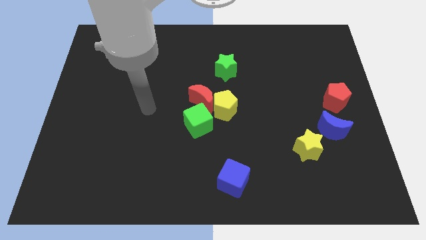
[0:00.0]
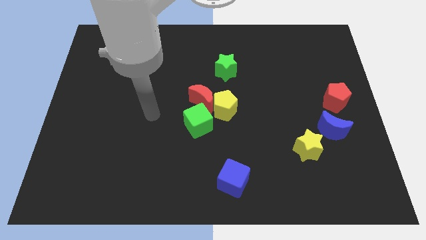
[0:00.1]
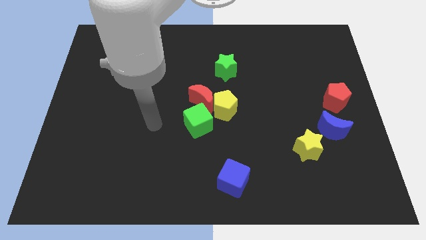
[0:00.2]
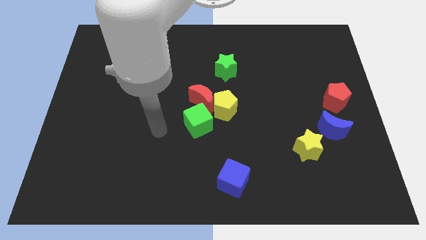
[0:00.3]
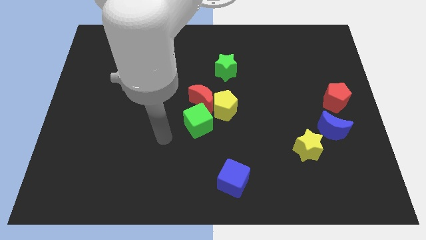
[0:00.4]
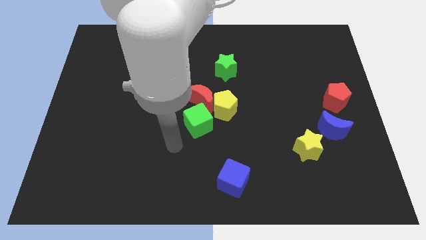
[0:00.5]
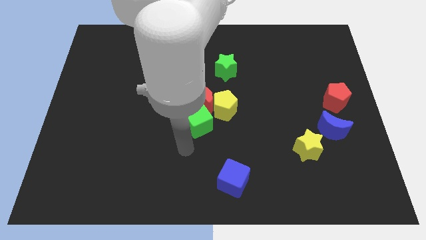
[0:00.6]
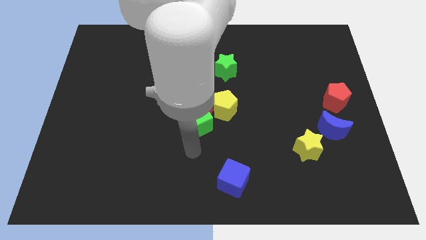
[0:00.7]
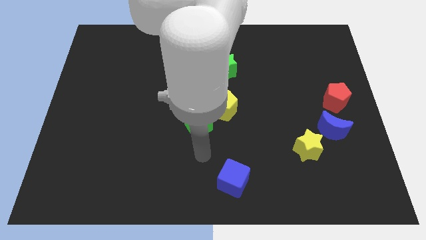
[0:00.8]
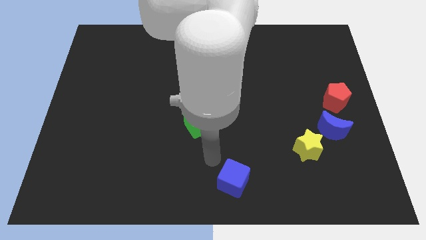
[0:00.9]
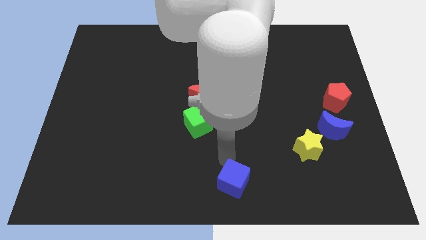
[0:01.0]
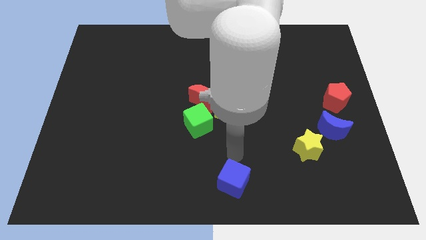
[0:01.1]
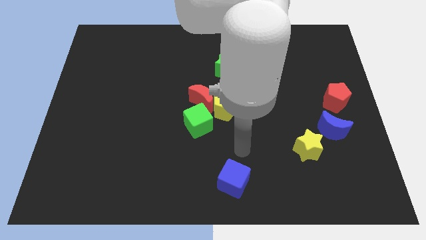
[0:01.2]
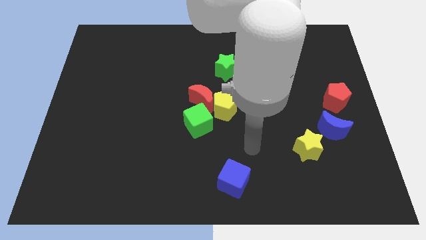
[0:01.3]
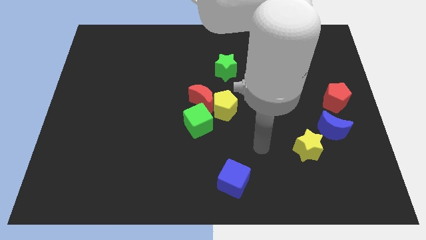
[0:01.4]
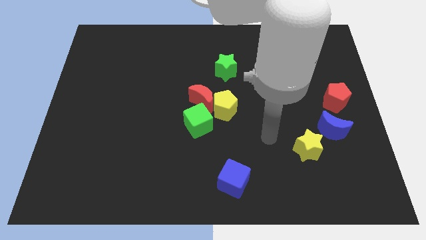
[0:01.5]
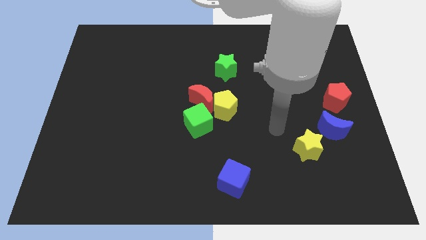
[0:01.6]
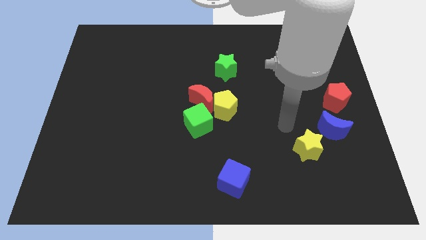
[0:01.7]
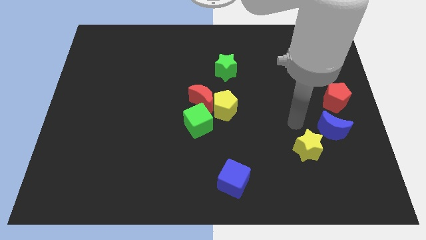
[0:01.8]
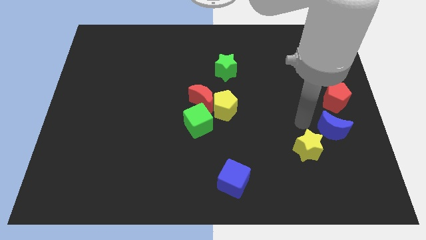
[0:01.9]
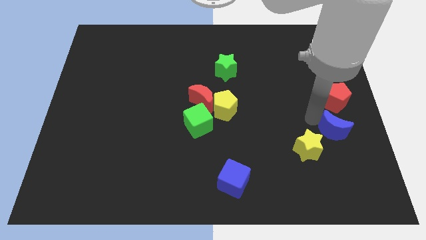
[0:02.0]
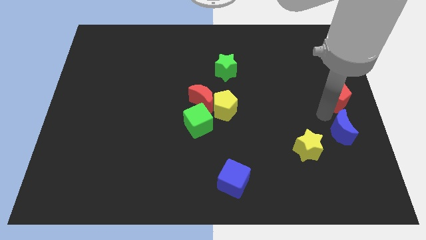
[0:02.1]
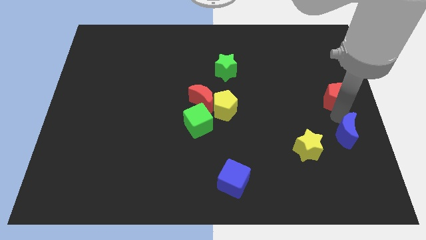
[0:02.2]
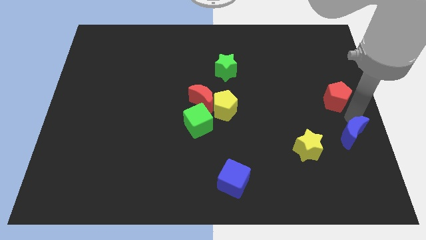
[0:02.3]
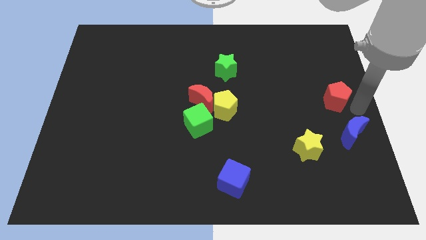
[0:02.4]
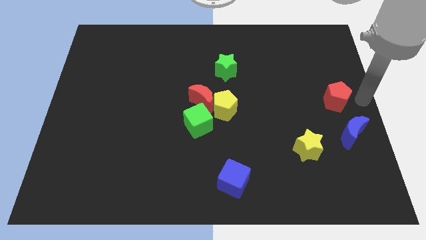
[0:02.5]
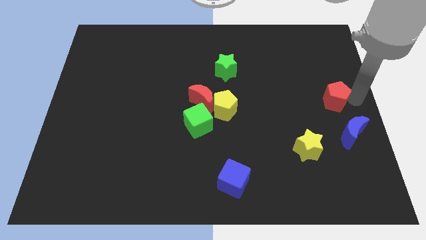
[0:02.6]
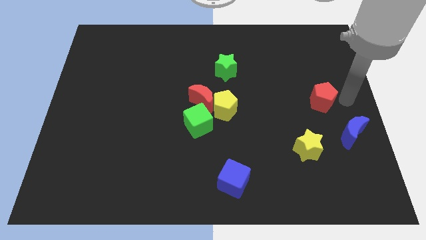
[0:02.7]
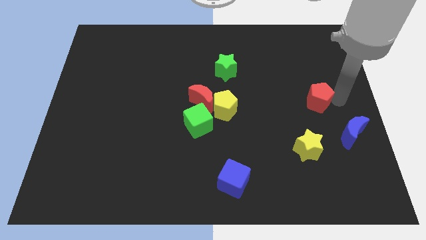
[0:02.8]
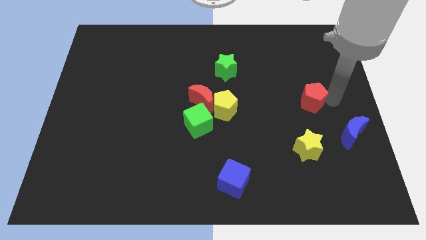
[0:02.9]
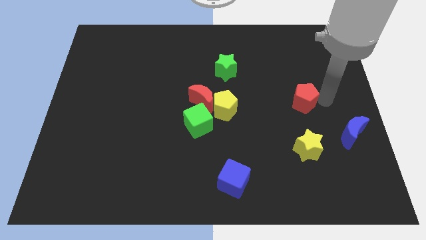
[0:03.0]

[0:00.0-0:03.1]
slightly push the red pentagon left

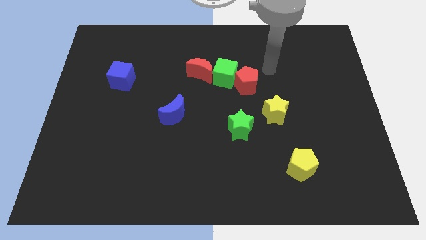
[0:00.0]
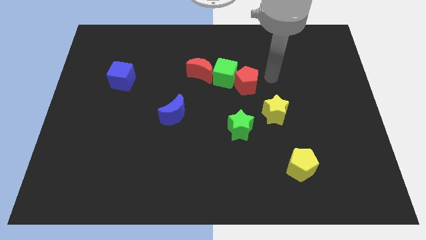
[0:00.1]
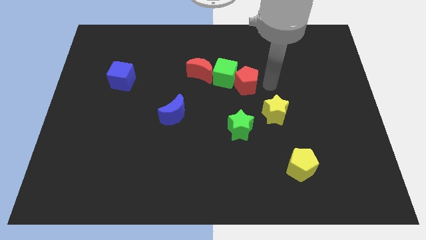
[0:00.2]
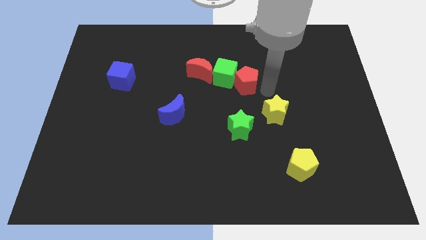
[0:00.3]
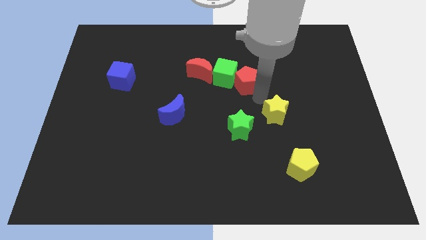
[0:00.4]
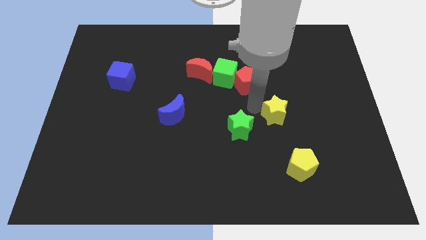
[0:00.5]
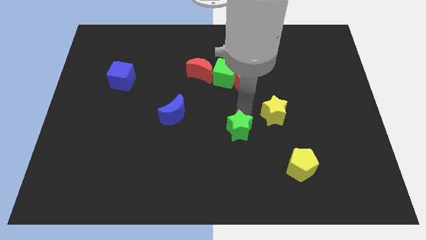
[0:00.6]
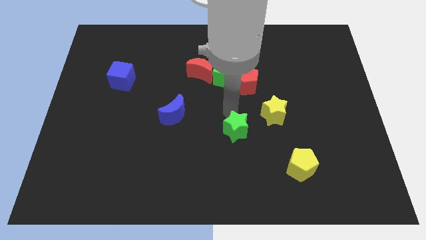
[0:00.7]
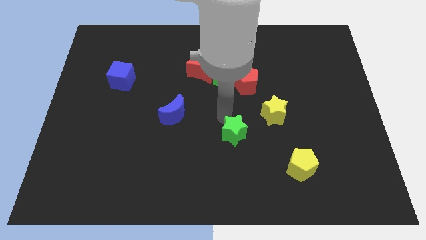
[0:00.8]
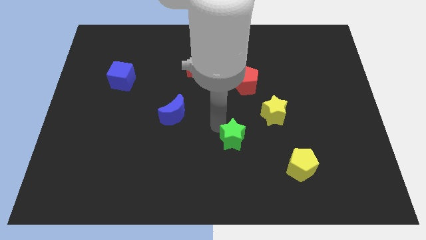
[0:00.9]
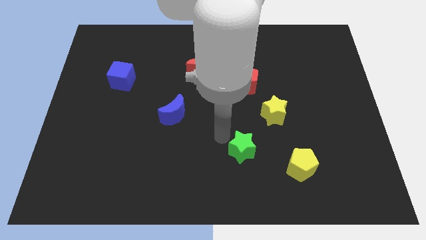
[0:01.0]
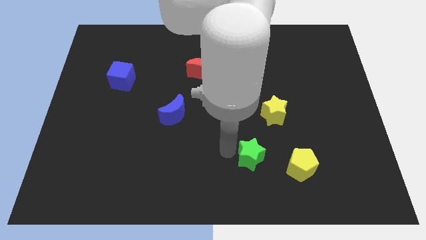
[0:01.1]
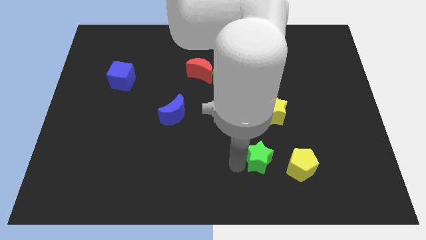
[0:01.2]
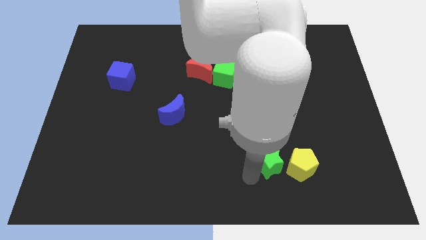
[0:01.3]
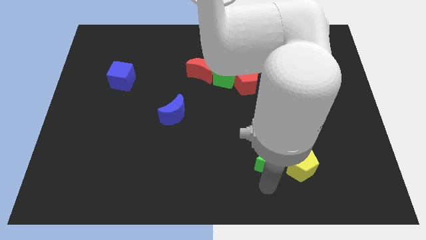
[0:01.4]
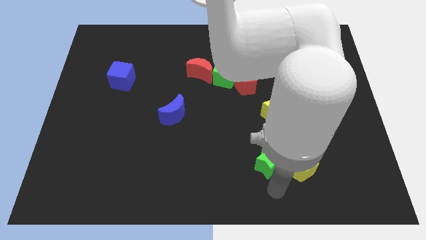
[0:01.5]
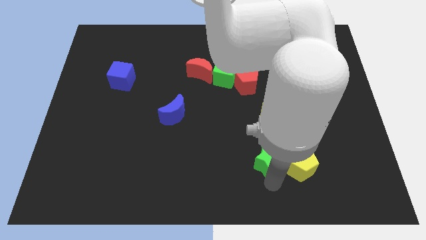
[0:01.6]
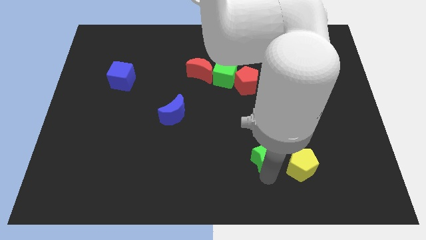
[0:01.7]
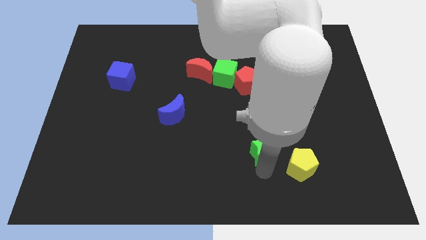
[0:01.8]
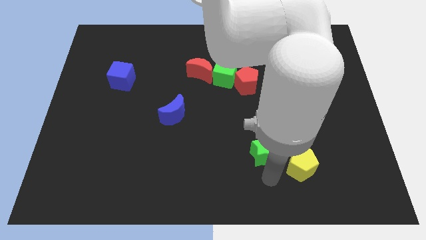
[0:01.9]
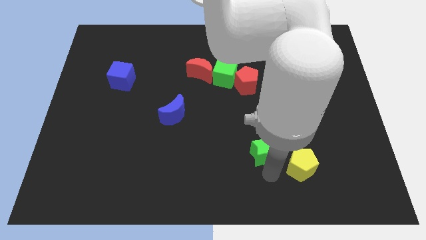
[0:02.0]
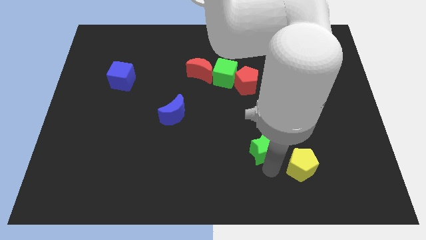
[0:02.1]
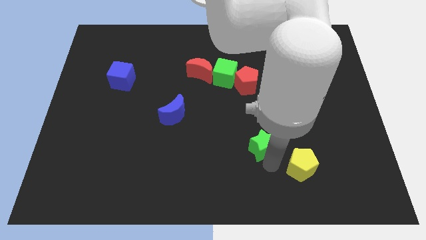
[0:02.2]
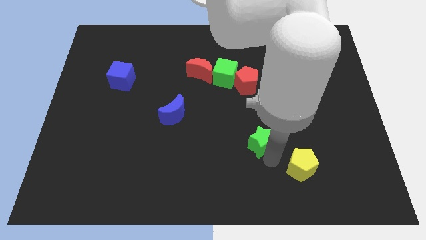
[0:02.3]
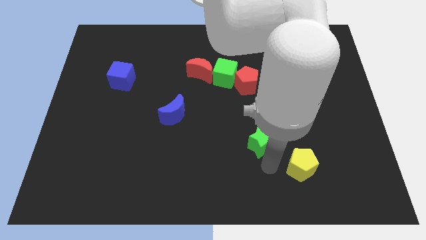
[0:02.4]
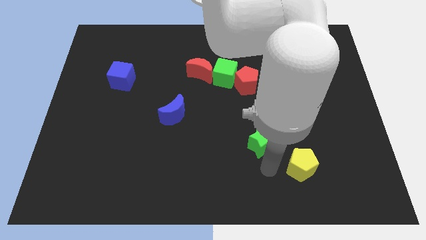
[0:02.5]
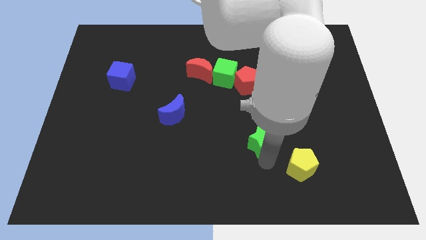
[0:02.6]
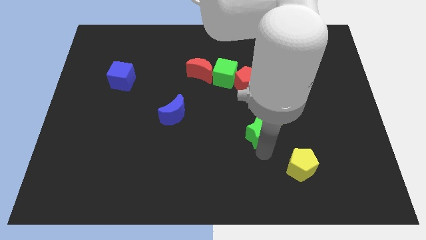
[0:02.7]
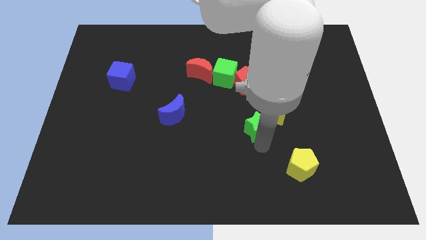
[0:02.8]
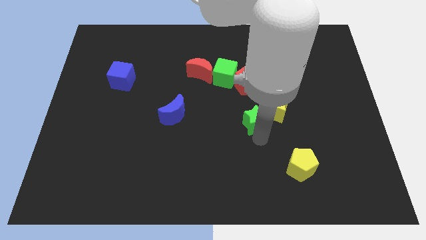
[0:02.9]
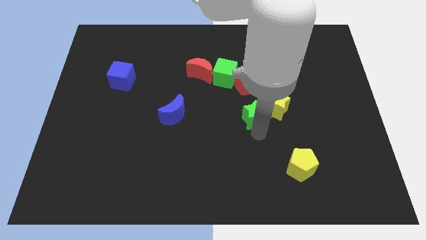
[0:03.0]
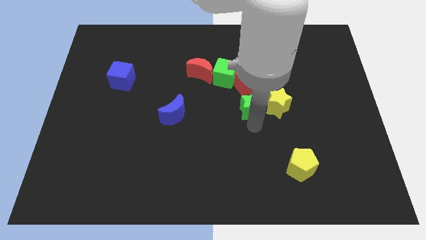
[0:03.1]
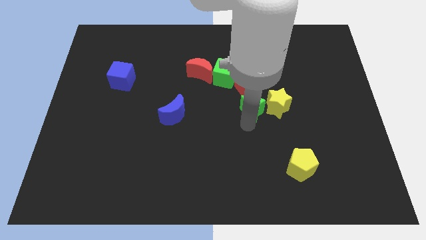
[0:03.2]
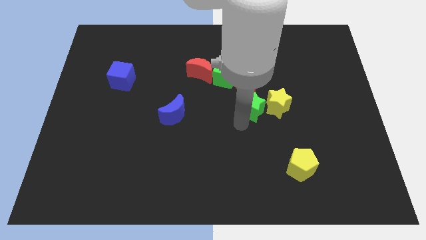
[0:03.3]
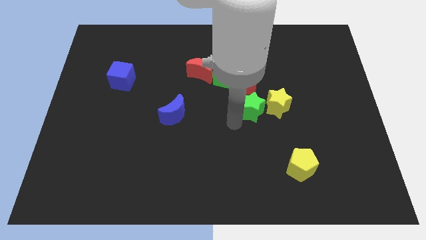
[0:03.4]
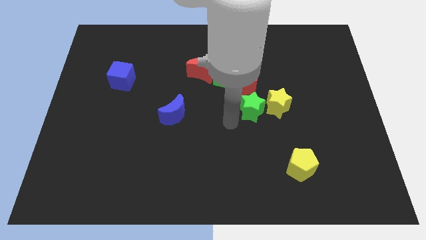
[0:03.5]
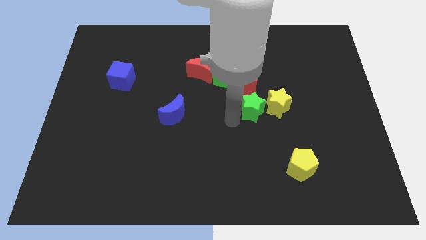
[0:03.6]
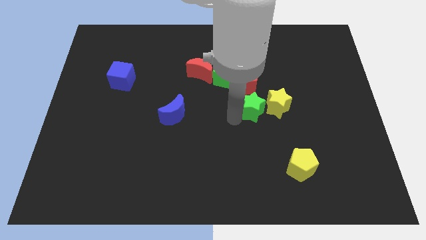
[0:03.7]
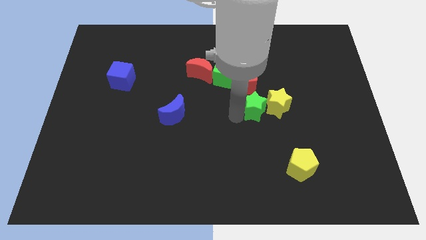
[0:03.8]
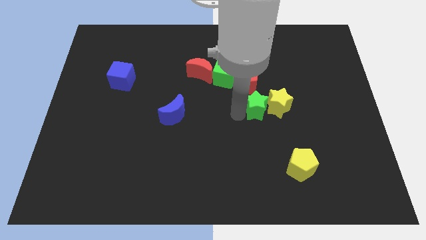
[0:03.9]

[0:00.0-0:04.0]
slide the green star diagonally up and right a bit

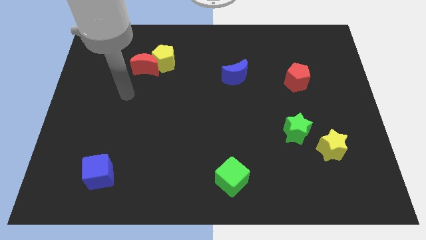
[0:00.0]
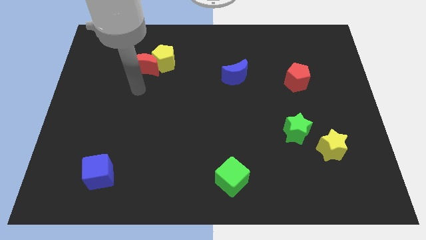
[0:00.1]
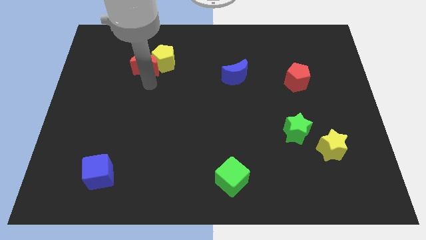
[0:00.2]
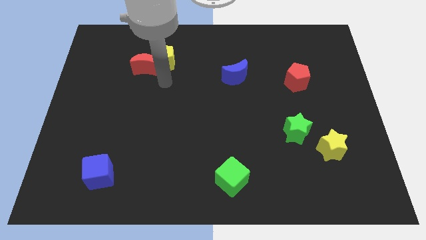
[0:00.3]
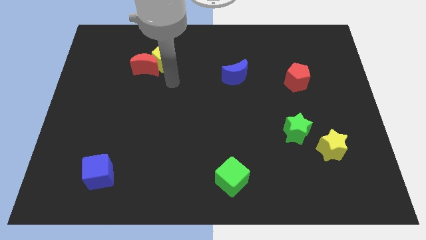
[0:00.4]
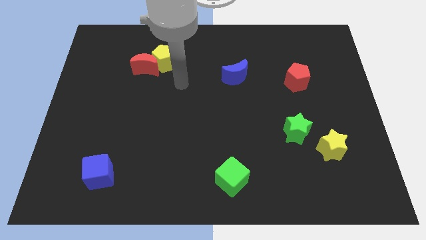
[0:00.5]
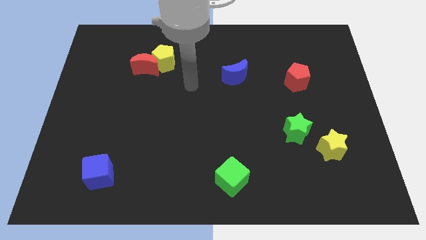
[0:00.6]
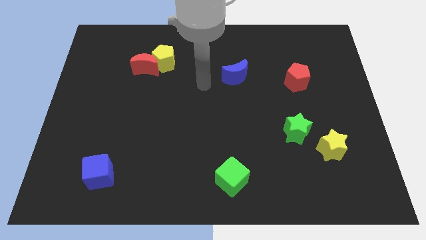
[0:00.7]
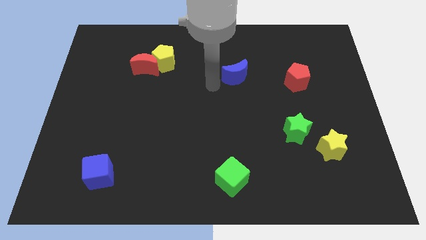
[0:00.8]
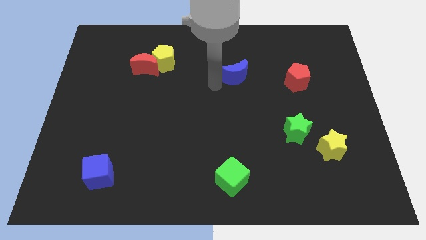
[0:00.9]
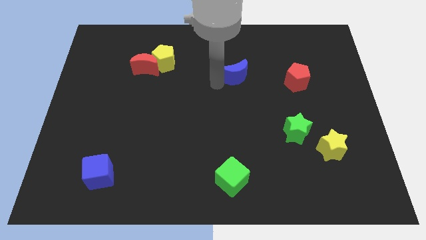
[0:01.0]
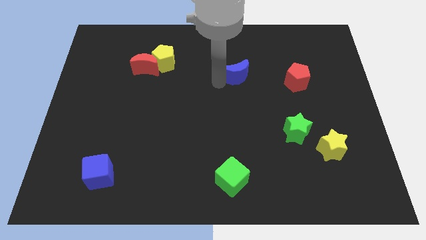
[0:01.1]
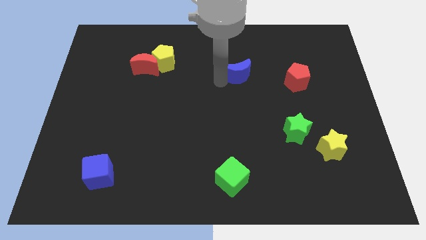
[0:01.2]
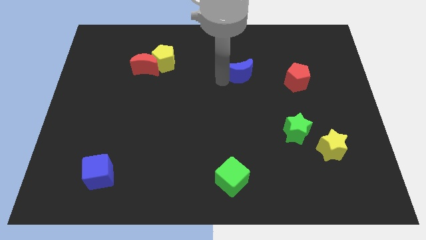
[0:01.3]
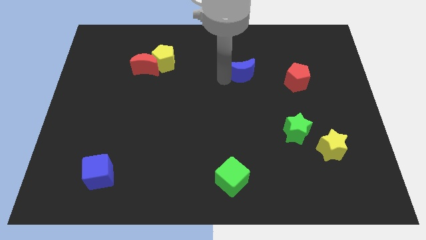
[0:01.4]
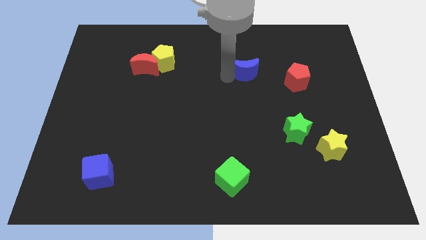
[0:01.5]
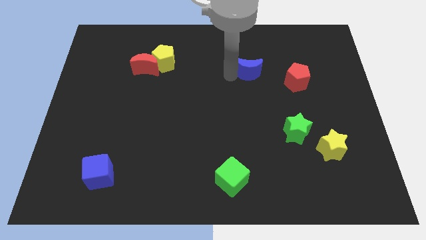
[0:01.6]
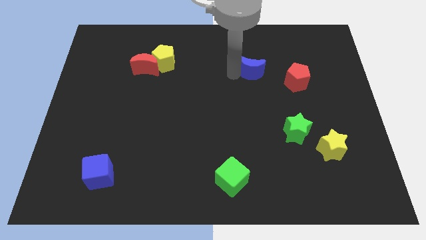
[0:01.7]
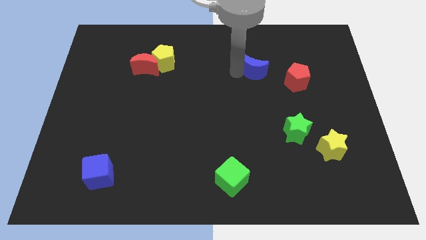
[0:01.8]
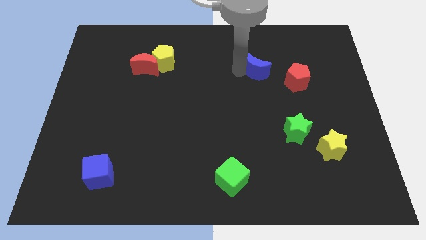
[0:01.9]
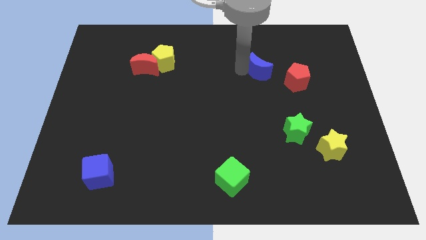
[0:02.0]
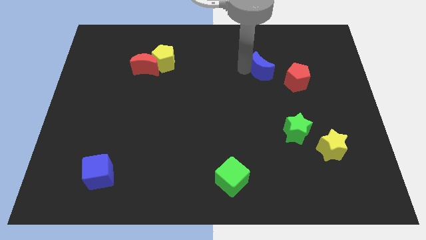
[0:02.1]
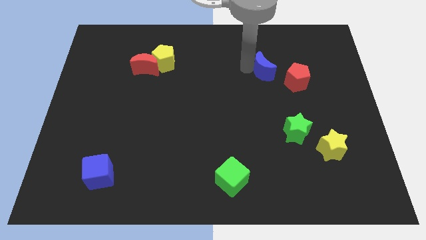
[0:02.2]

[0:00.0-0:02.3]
slide the blue moon to the right a bit
